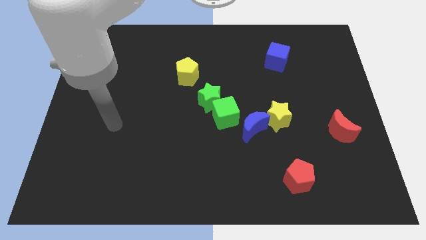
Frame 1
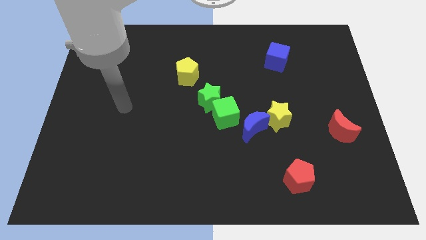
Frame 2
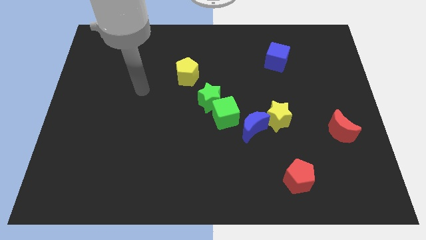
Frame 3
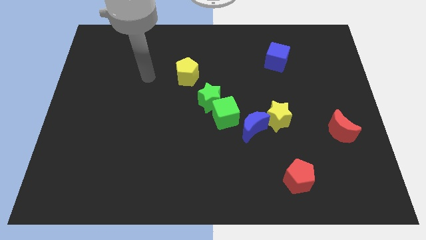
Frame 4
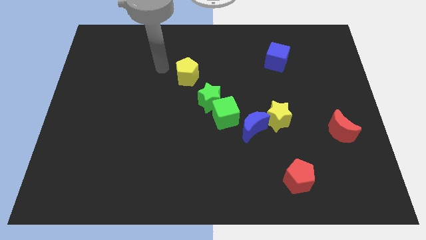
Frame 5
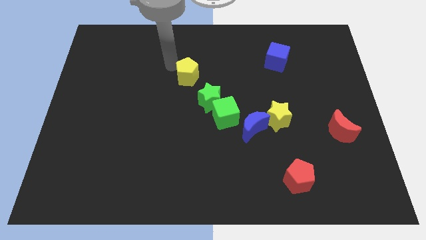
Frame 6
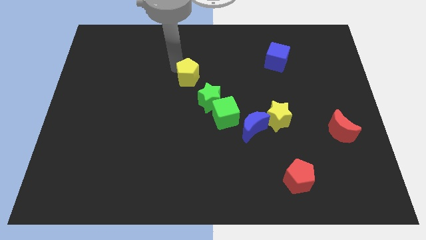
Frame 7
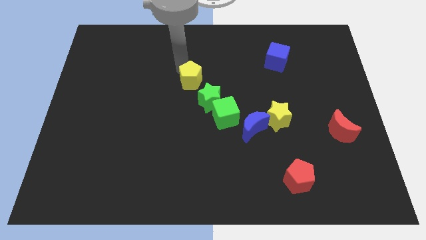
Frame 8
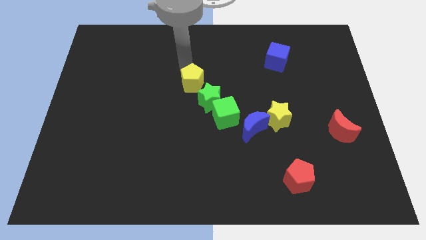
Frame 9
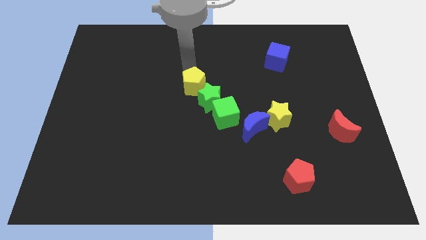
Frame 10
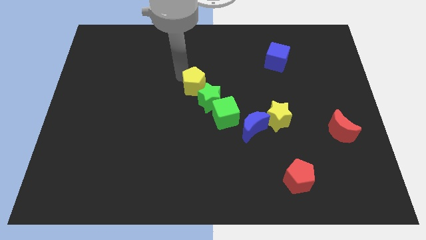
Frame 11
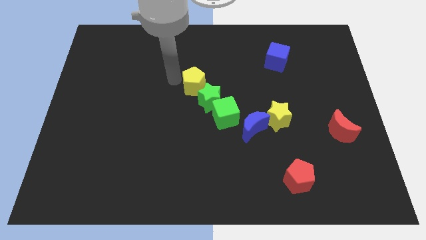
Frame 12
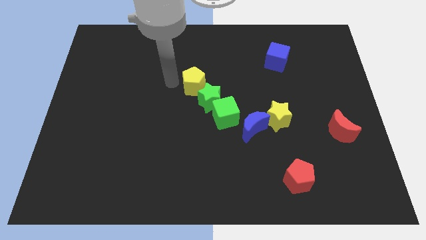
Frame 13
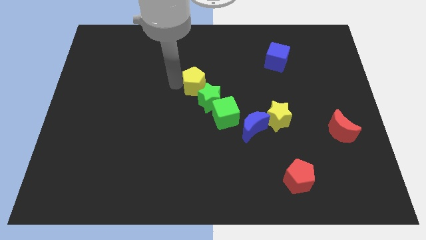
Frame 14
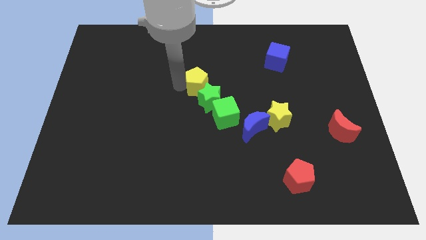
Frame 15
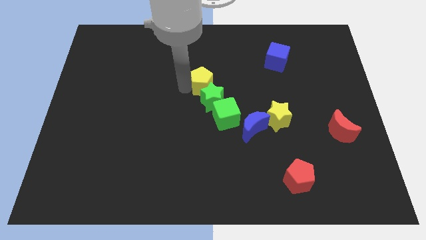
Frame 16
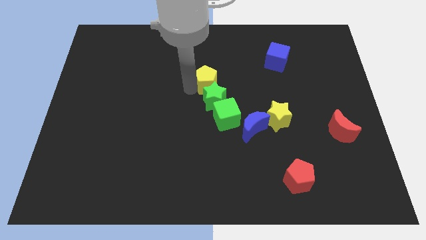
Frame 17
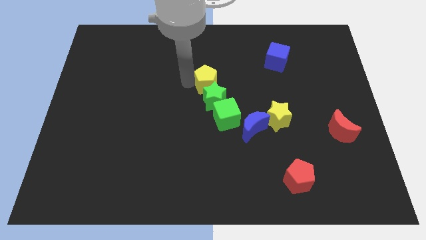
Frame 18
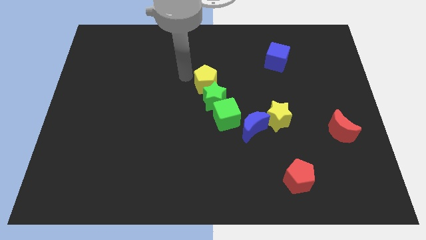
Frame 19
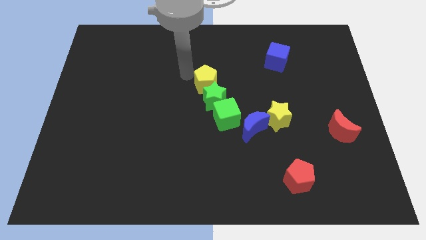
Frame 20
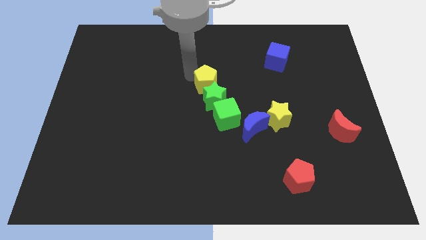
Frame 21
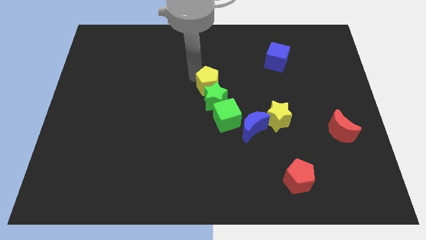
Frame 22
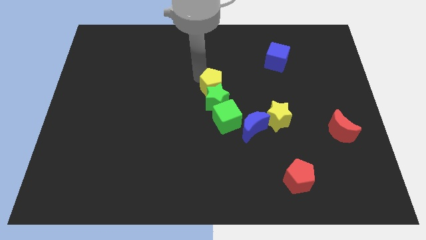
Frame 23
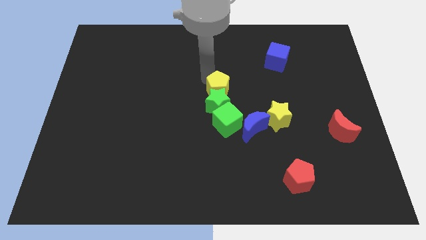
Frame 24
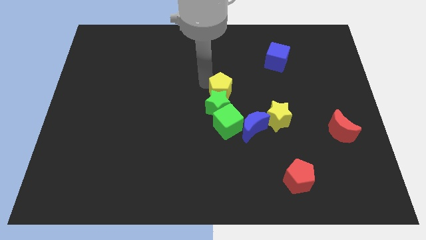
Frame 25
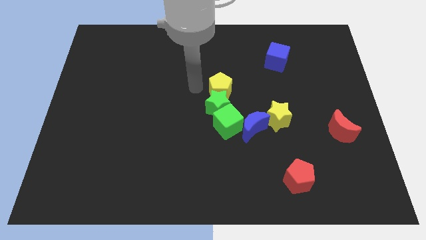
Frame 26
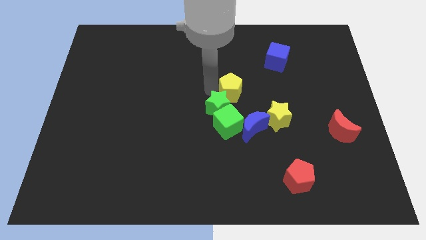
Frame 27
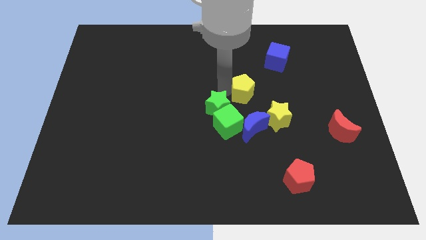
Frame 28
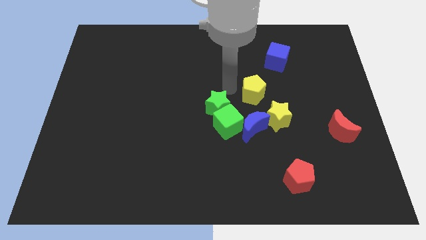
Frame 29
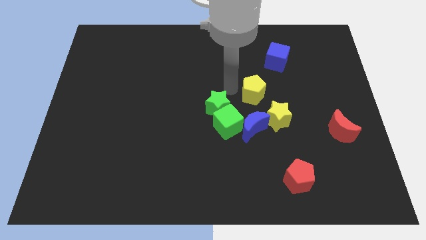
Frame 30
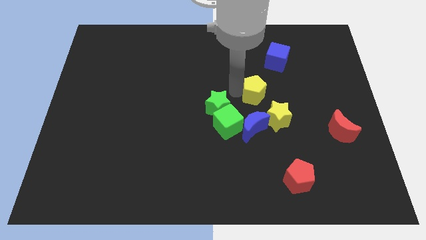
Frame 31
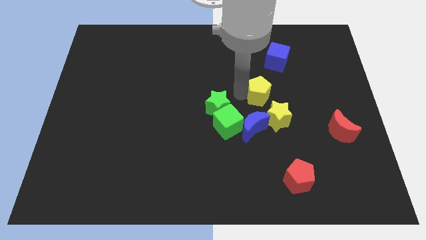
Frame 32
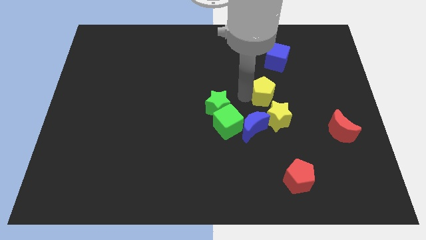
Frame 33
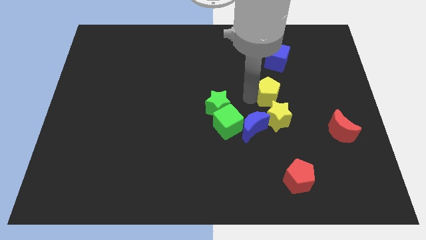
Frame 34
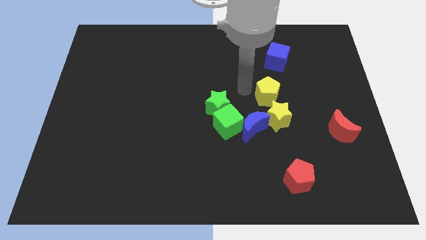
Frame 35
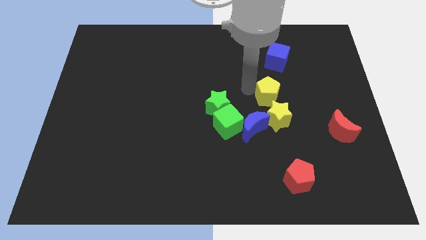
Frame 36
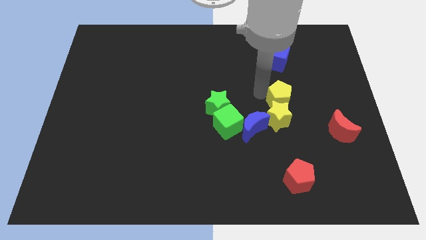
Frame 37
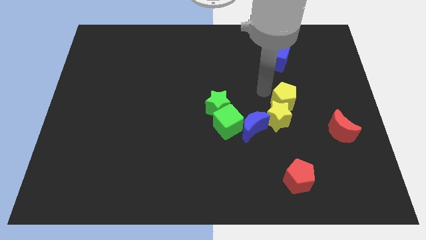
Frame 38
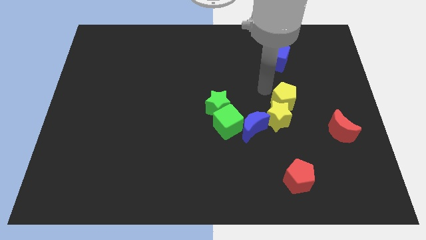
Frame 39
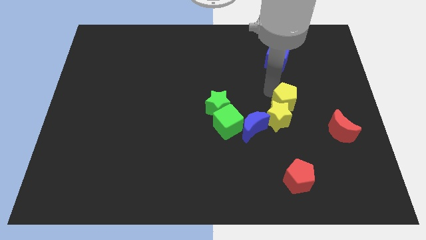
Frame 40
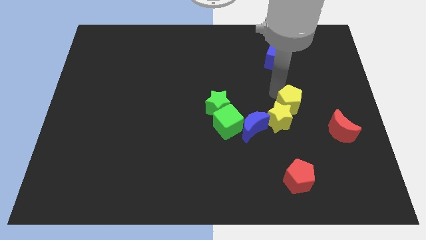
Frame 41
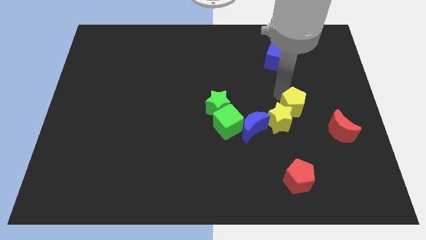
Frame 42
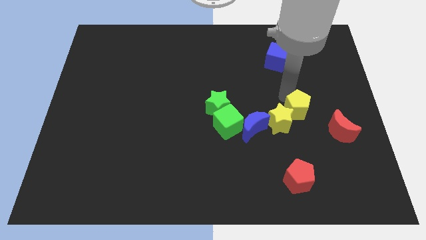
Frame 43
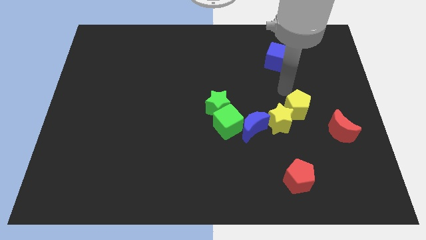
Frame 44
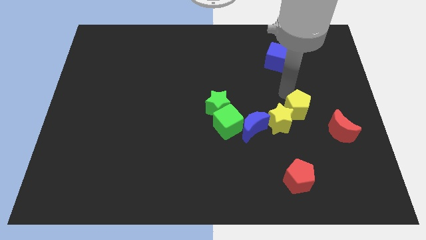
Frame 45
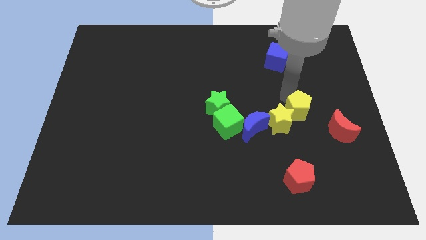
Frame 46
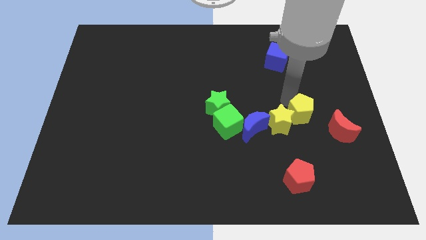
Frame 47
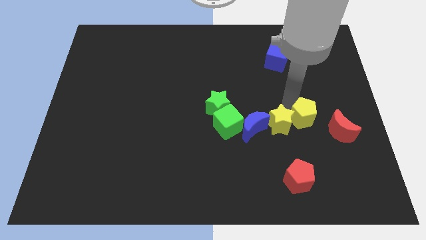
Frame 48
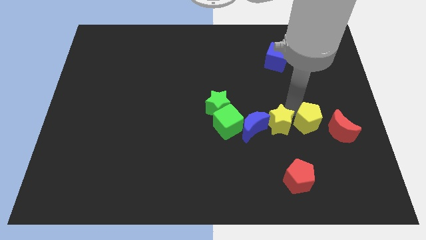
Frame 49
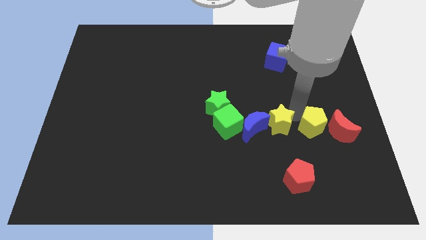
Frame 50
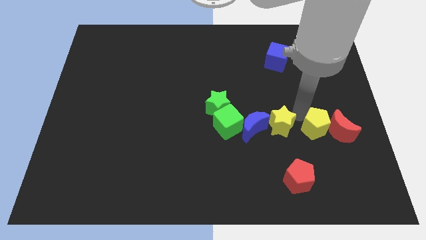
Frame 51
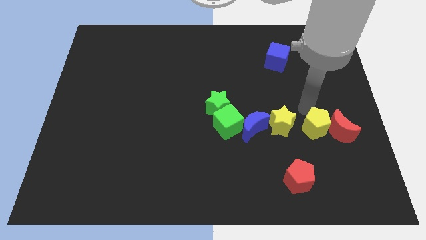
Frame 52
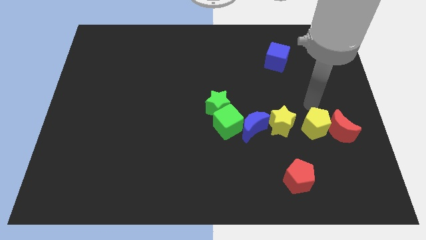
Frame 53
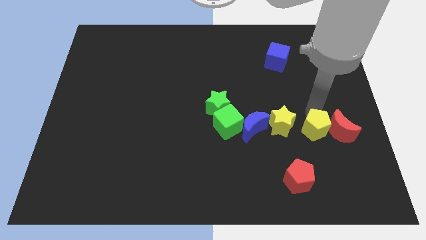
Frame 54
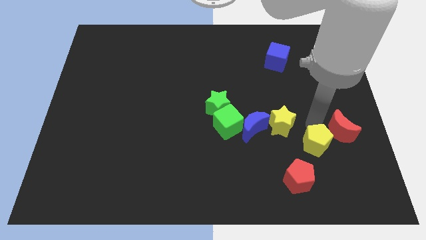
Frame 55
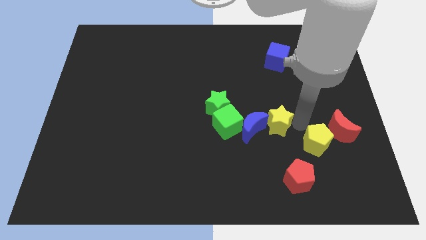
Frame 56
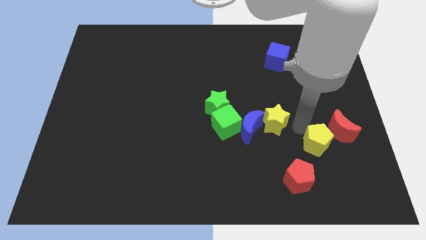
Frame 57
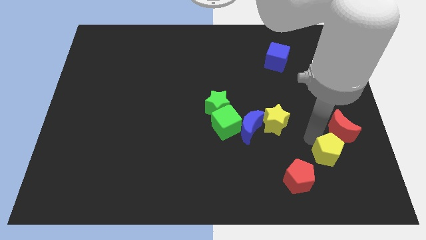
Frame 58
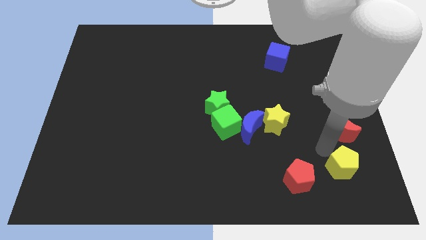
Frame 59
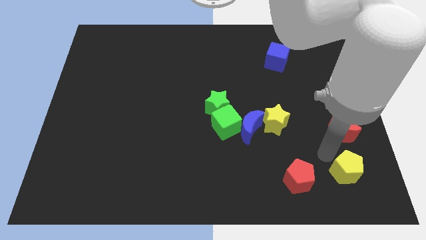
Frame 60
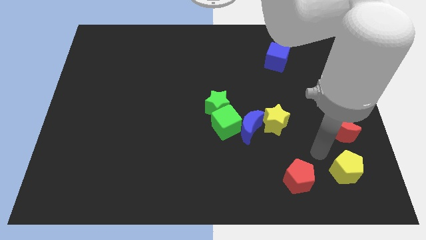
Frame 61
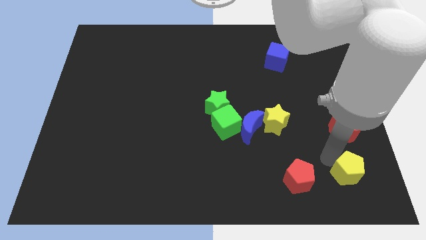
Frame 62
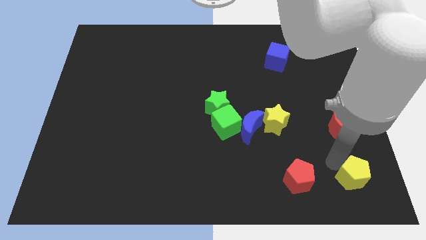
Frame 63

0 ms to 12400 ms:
move the yellow pentagon to the bottom right corner

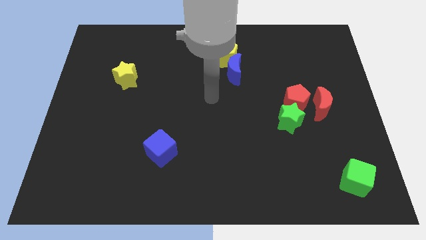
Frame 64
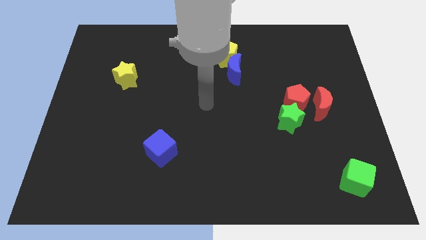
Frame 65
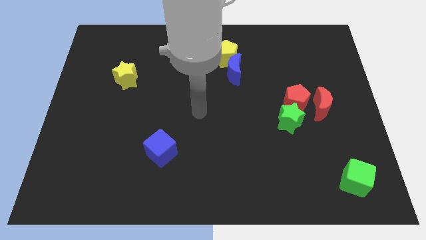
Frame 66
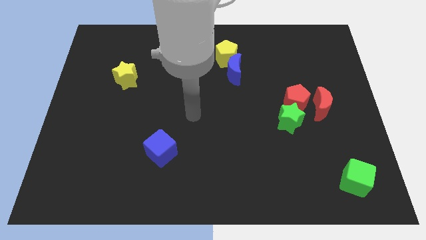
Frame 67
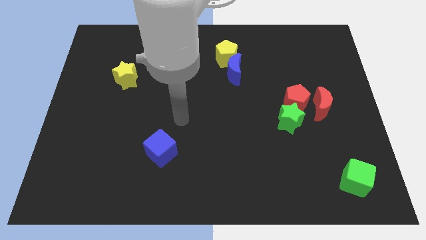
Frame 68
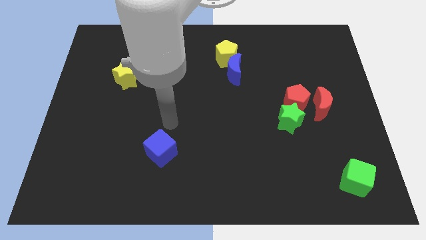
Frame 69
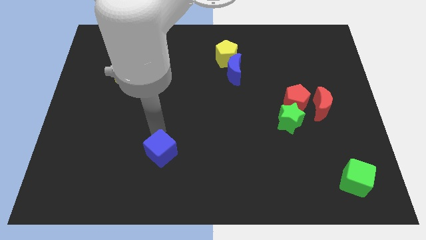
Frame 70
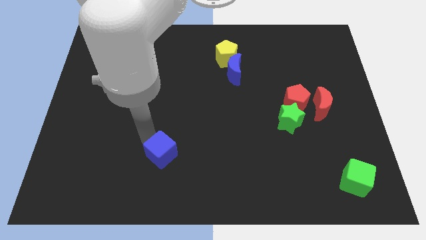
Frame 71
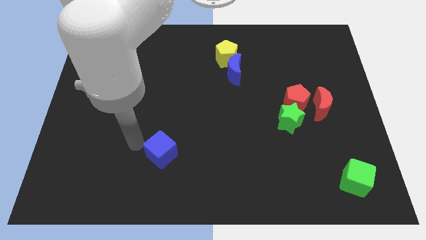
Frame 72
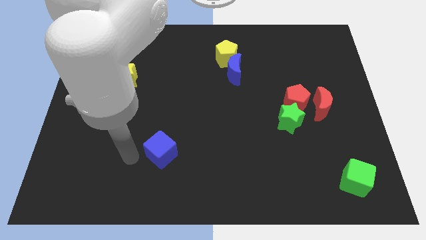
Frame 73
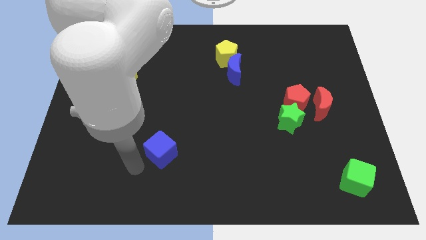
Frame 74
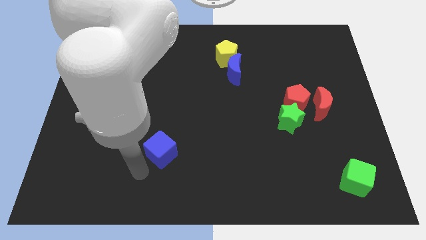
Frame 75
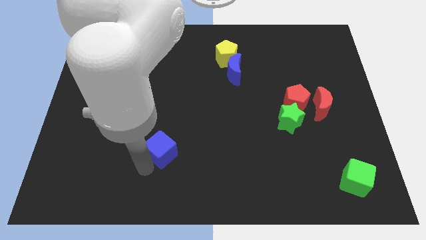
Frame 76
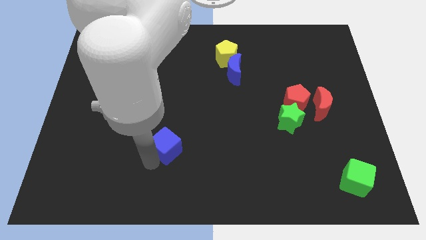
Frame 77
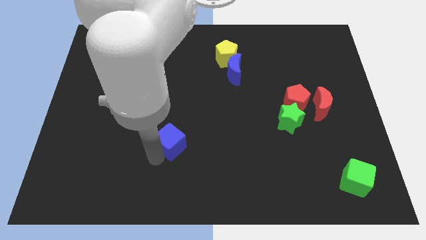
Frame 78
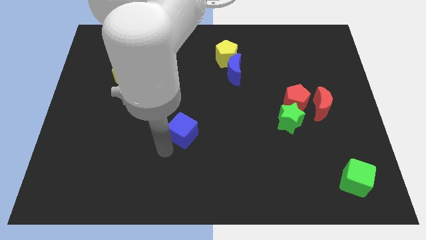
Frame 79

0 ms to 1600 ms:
slide the blue cube to the center
